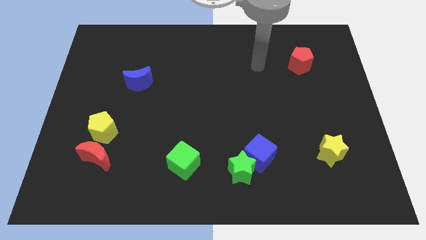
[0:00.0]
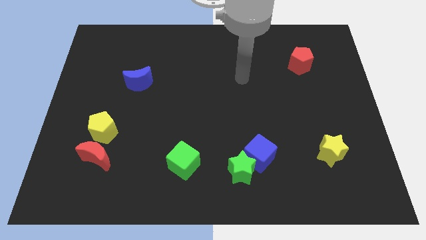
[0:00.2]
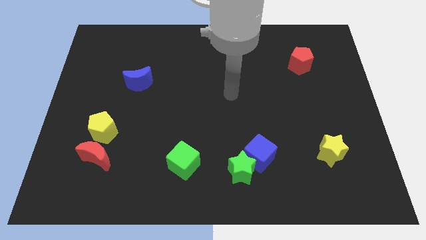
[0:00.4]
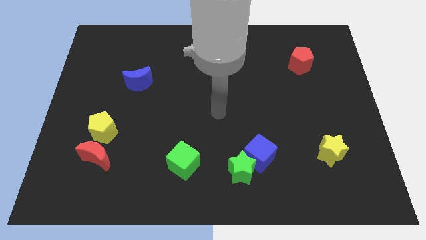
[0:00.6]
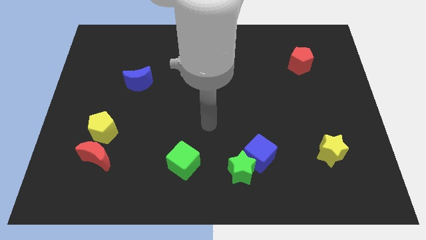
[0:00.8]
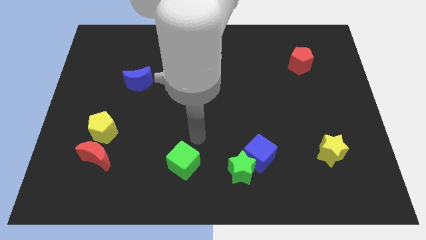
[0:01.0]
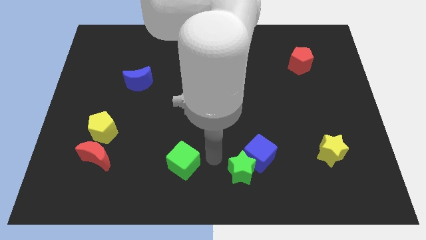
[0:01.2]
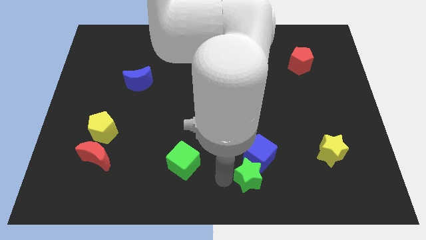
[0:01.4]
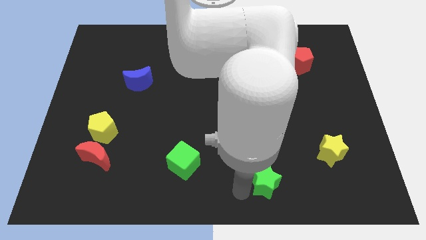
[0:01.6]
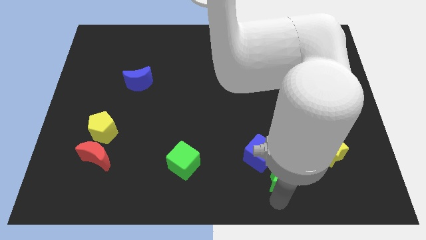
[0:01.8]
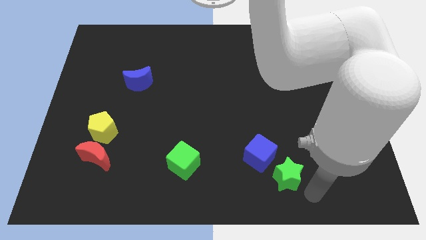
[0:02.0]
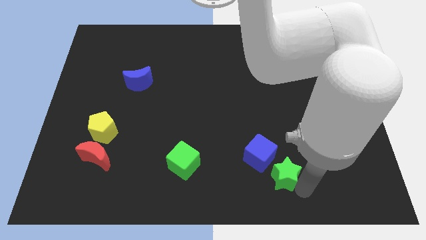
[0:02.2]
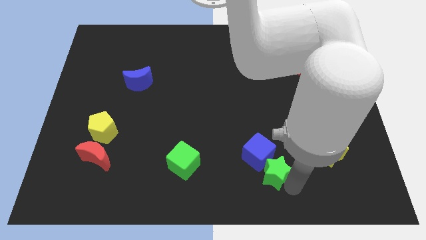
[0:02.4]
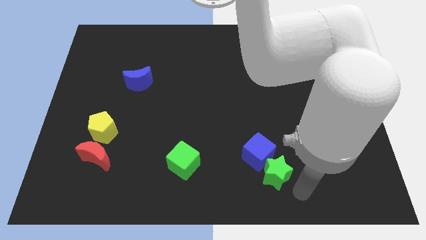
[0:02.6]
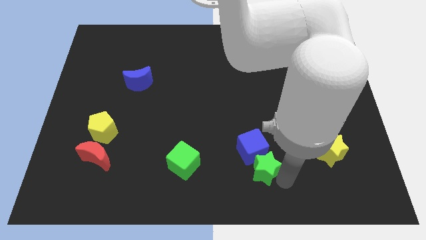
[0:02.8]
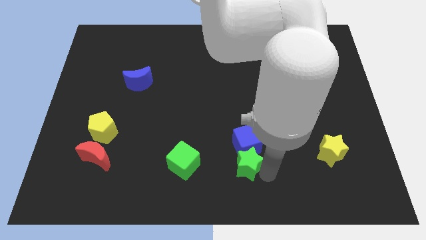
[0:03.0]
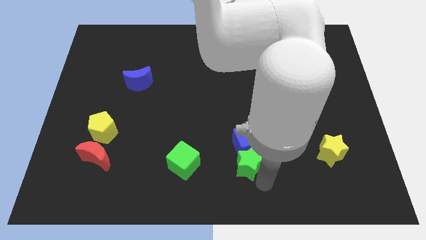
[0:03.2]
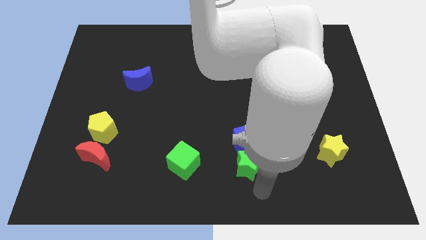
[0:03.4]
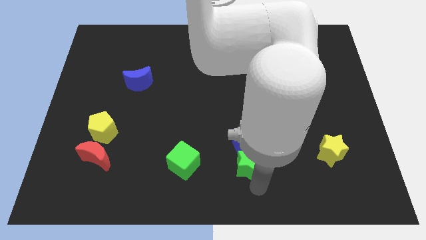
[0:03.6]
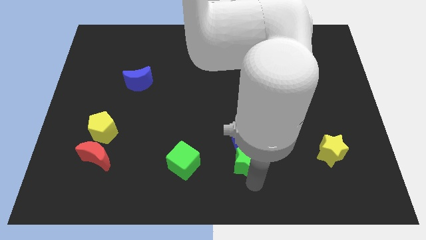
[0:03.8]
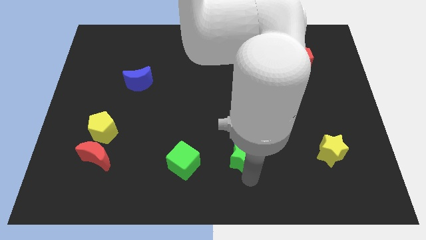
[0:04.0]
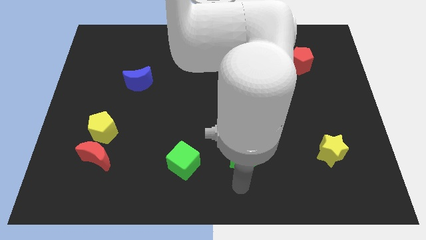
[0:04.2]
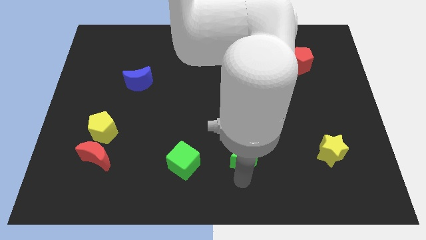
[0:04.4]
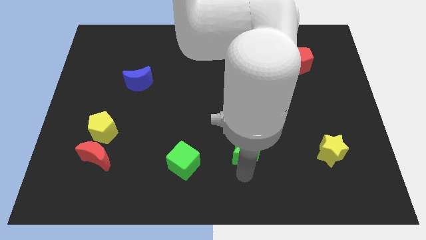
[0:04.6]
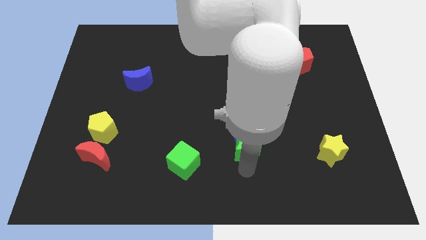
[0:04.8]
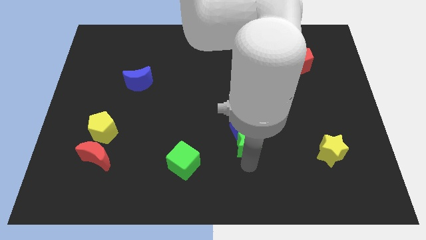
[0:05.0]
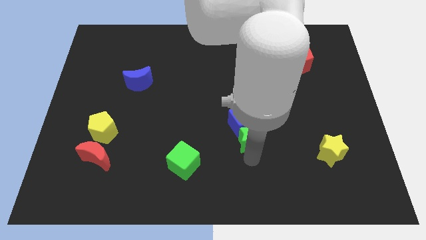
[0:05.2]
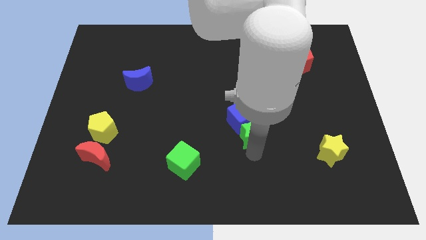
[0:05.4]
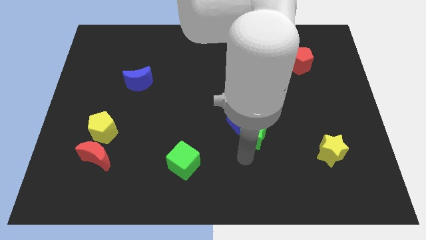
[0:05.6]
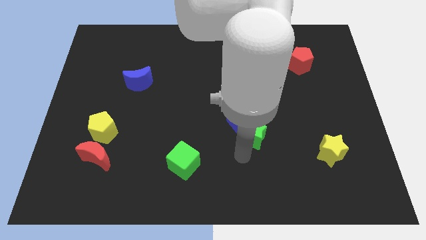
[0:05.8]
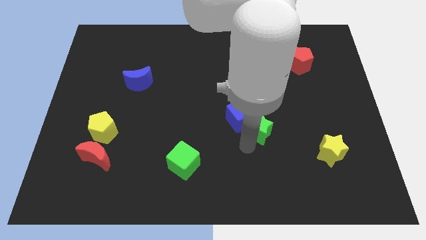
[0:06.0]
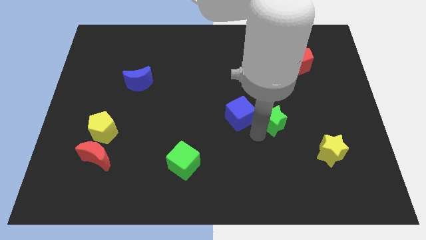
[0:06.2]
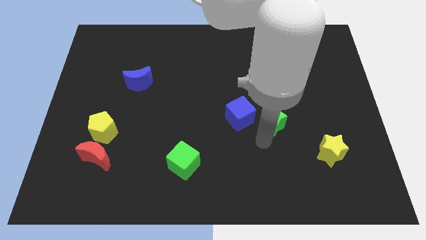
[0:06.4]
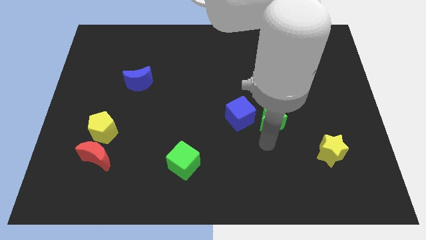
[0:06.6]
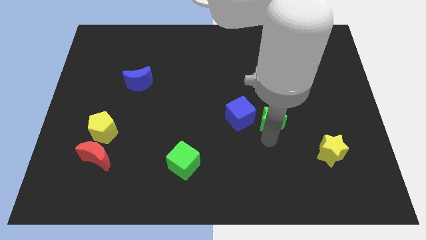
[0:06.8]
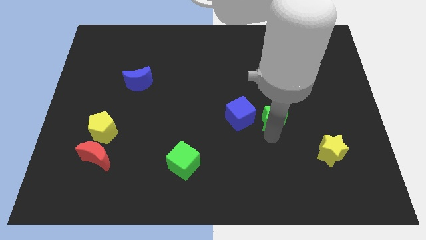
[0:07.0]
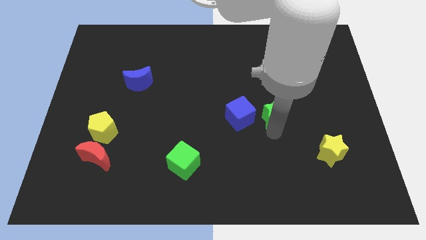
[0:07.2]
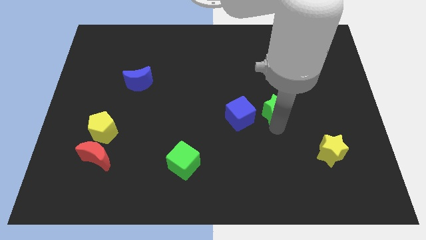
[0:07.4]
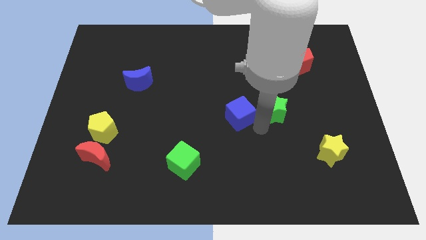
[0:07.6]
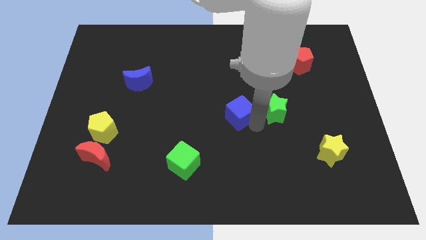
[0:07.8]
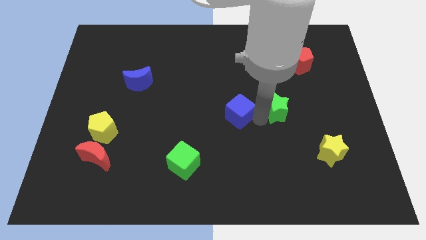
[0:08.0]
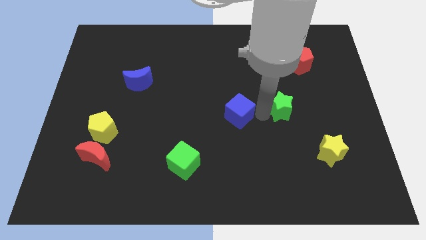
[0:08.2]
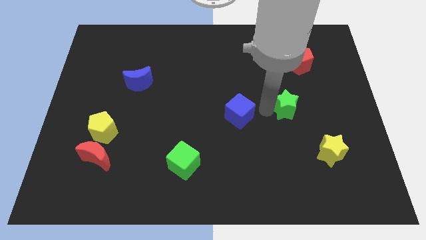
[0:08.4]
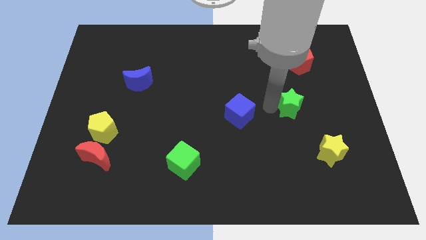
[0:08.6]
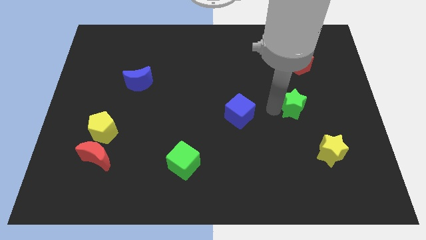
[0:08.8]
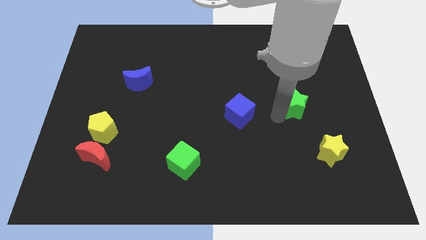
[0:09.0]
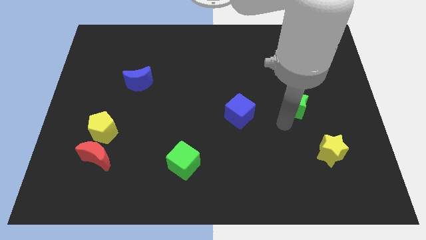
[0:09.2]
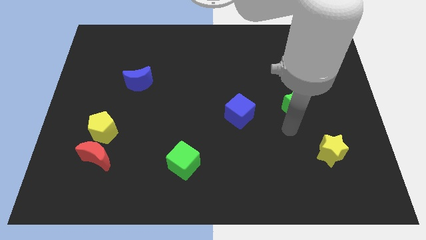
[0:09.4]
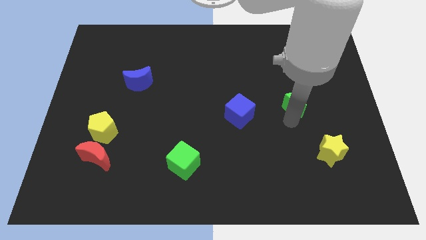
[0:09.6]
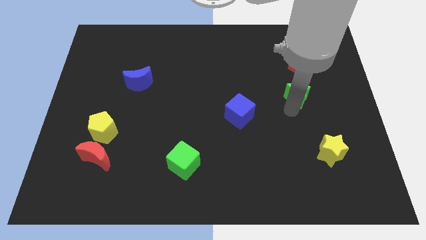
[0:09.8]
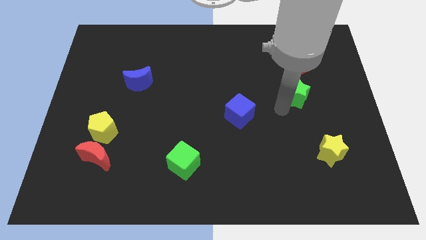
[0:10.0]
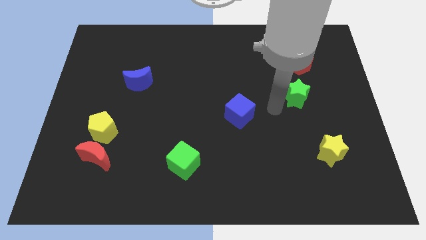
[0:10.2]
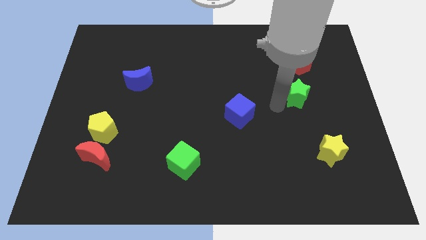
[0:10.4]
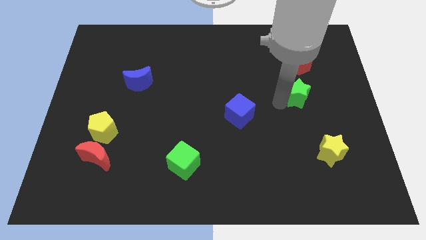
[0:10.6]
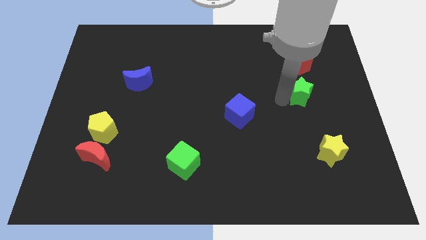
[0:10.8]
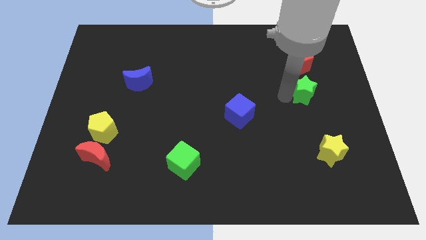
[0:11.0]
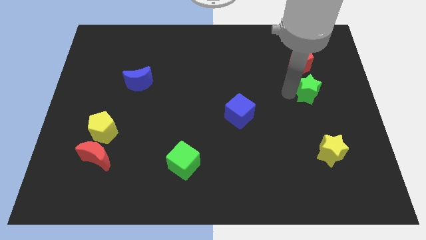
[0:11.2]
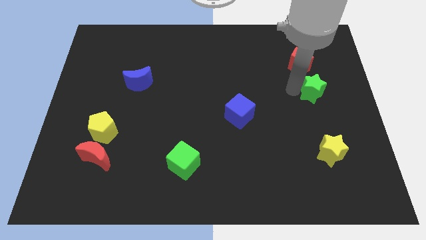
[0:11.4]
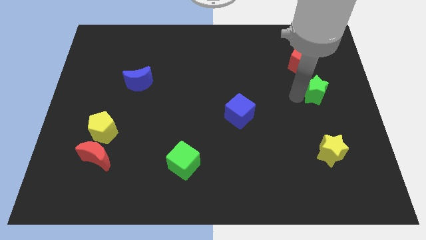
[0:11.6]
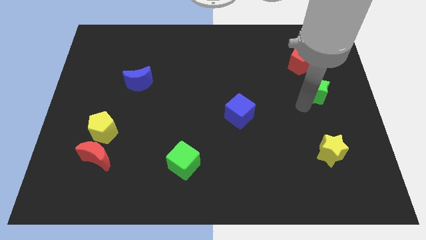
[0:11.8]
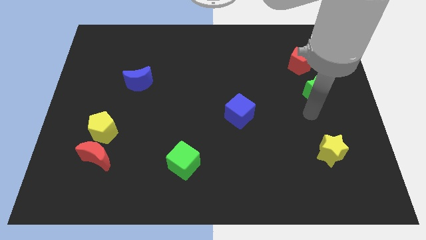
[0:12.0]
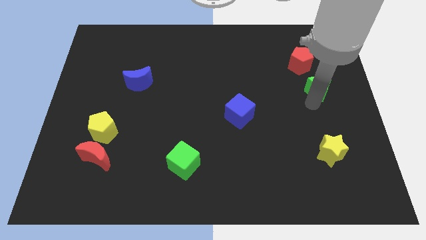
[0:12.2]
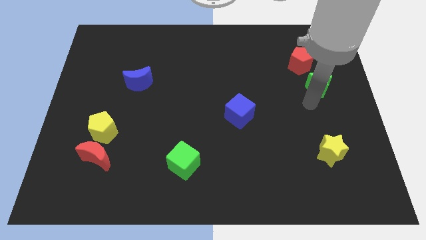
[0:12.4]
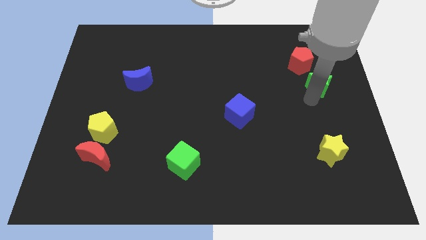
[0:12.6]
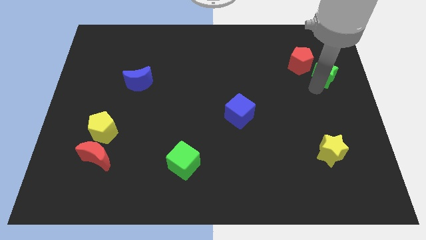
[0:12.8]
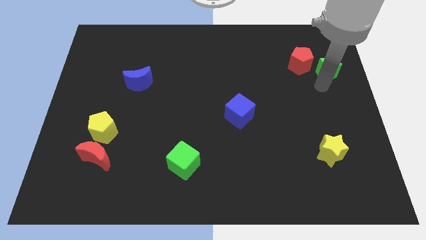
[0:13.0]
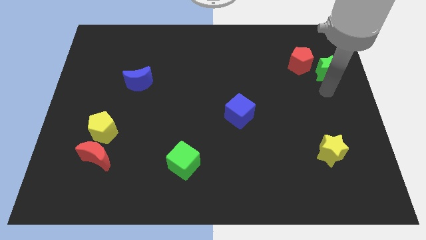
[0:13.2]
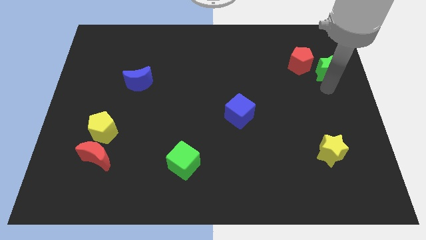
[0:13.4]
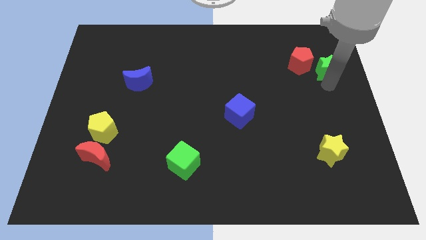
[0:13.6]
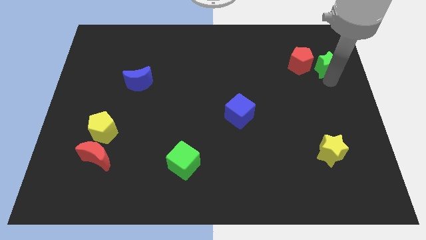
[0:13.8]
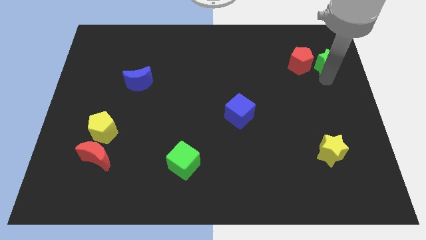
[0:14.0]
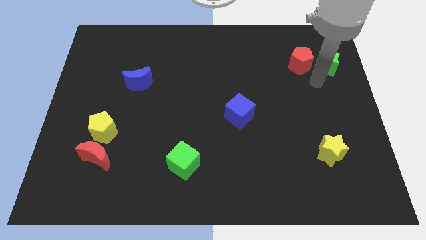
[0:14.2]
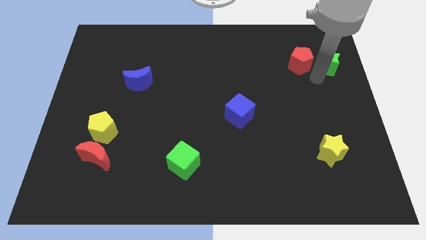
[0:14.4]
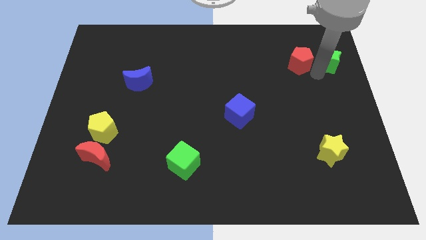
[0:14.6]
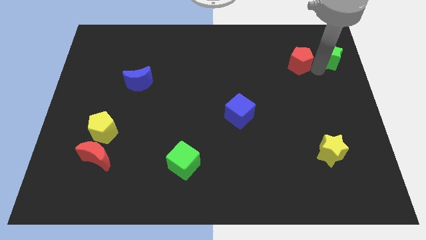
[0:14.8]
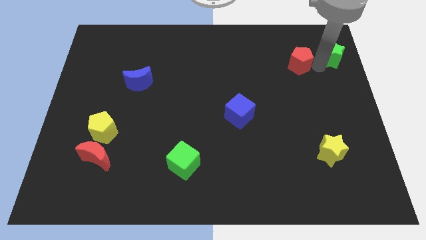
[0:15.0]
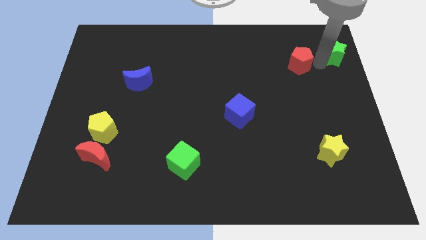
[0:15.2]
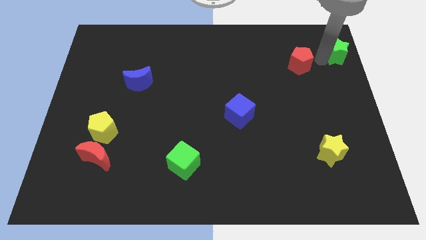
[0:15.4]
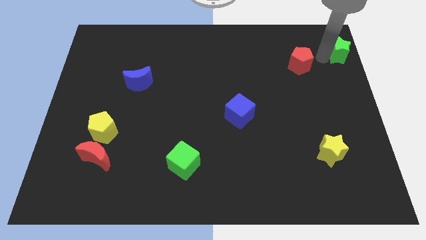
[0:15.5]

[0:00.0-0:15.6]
slide the green star to the top right corner
